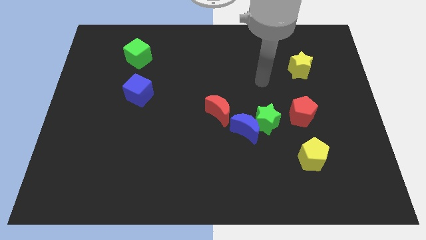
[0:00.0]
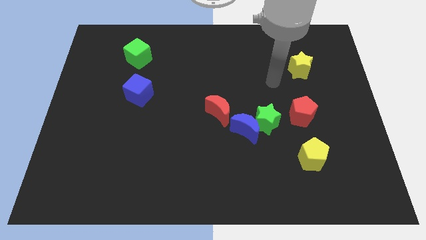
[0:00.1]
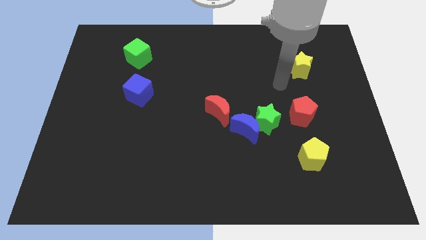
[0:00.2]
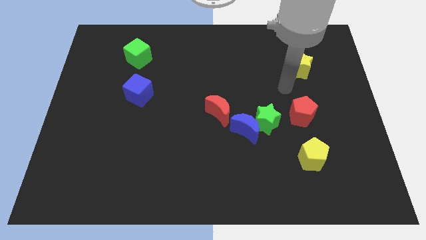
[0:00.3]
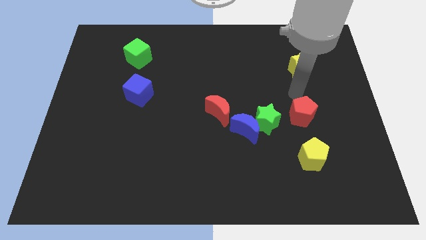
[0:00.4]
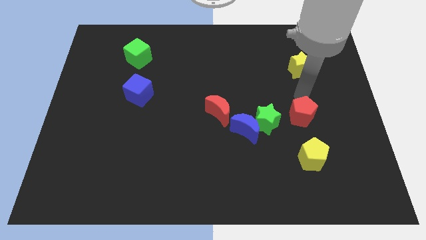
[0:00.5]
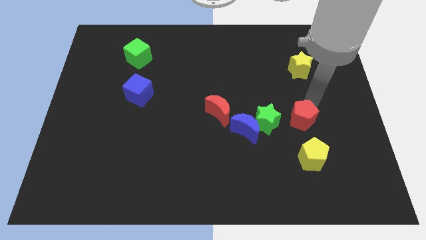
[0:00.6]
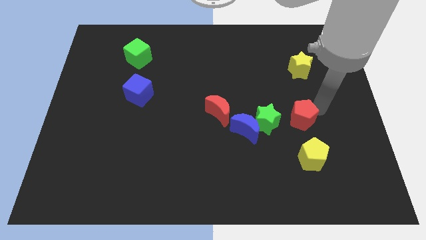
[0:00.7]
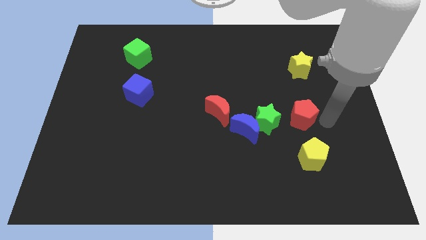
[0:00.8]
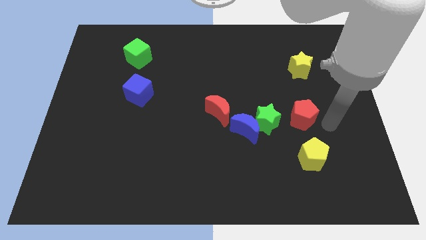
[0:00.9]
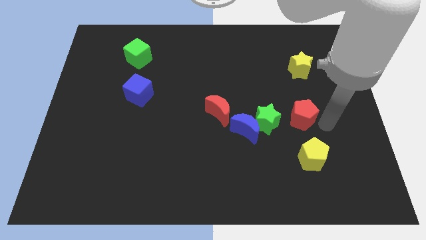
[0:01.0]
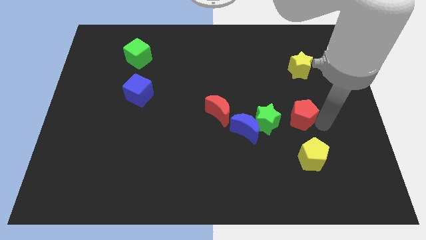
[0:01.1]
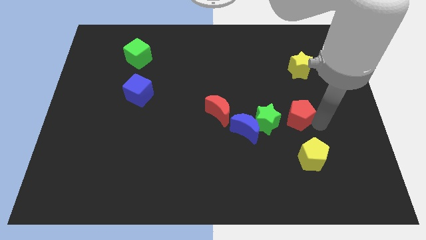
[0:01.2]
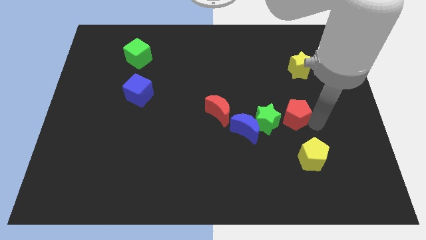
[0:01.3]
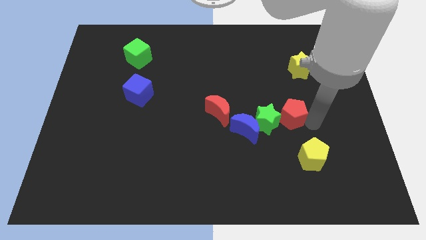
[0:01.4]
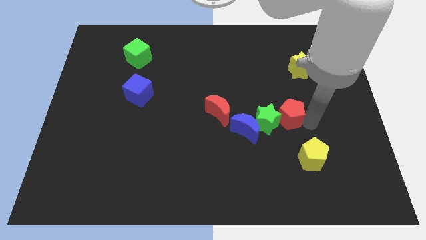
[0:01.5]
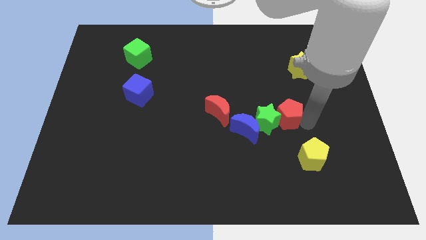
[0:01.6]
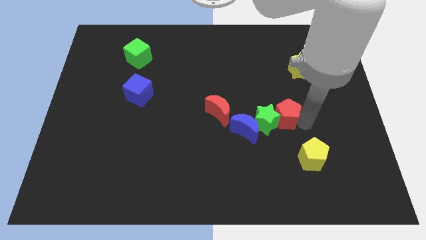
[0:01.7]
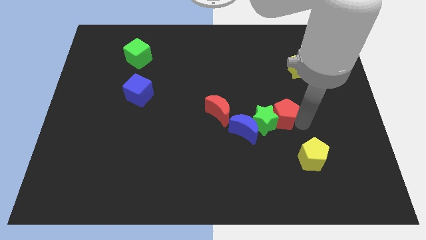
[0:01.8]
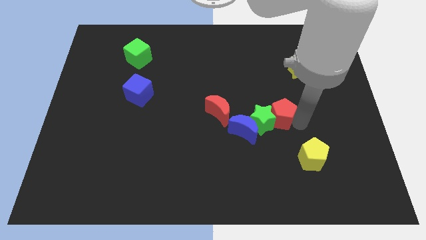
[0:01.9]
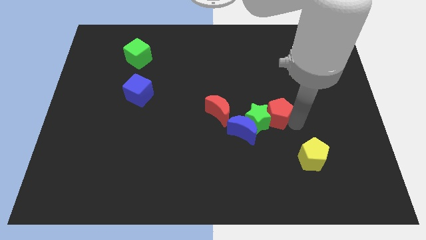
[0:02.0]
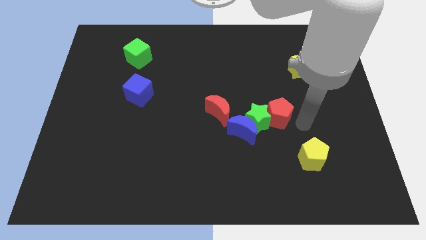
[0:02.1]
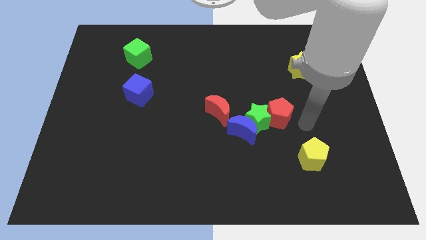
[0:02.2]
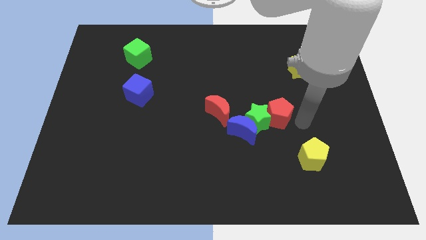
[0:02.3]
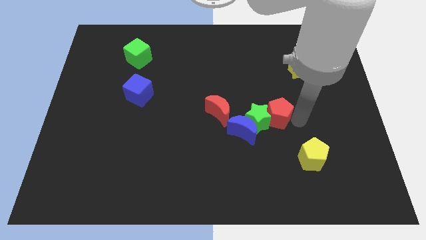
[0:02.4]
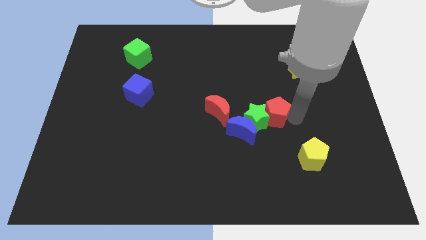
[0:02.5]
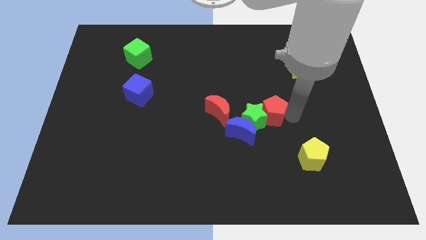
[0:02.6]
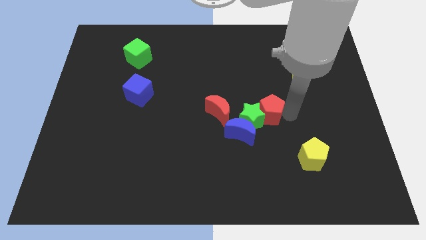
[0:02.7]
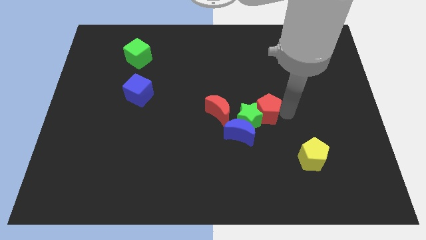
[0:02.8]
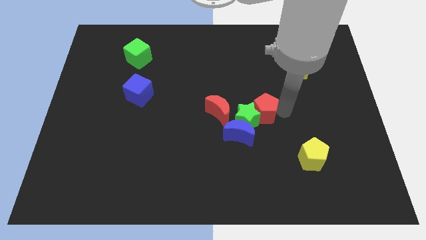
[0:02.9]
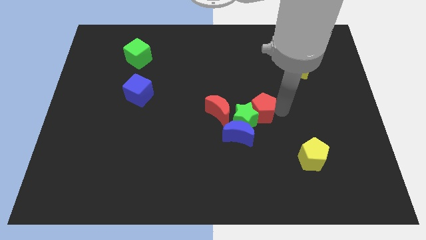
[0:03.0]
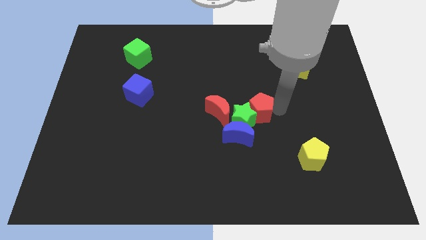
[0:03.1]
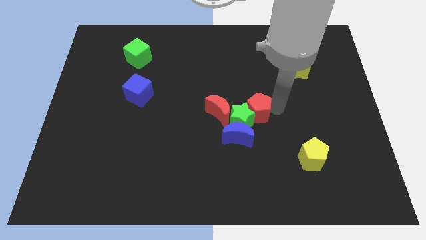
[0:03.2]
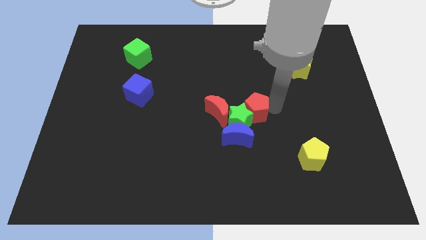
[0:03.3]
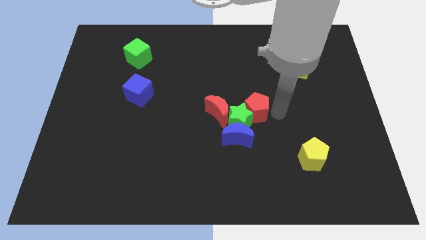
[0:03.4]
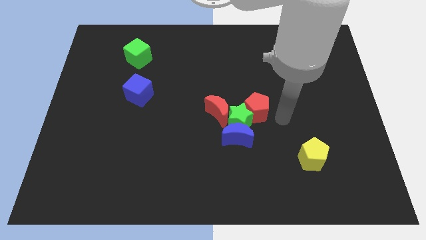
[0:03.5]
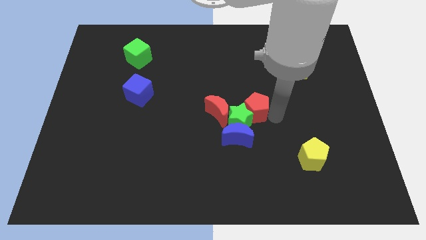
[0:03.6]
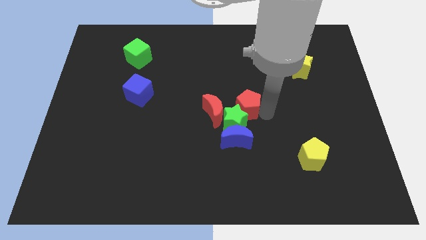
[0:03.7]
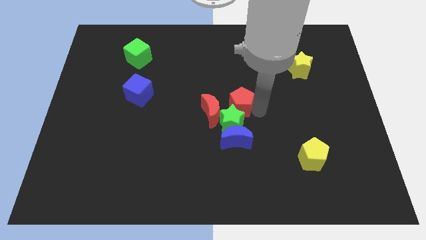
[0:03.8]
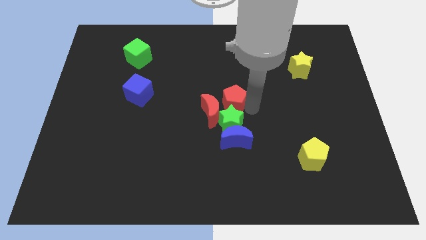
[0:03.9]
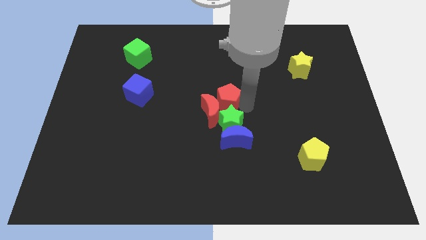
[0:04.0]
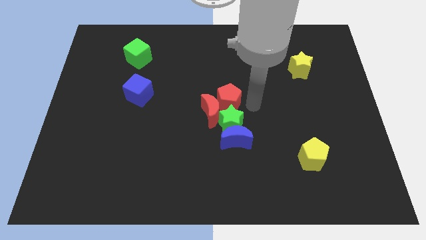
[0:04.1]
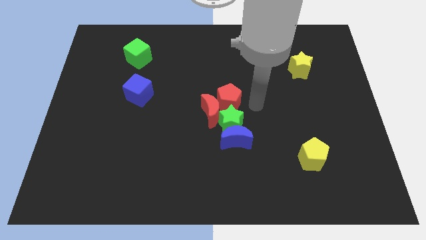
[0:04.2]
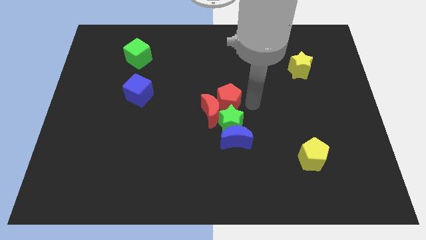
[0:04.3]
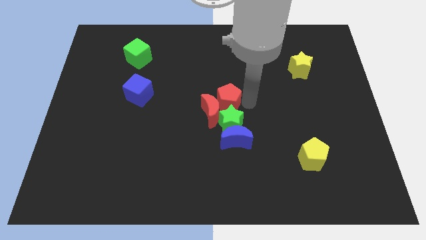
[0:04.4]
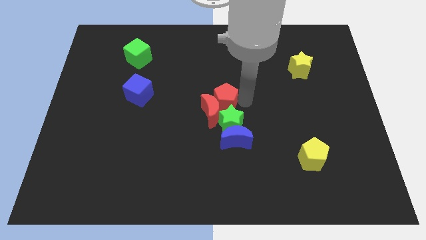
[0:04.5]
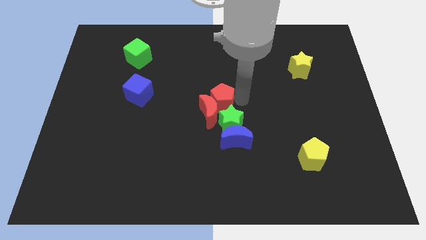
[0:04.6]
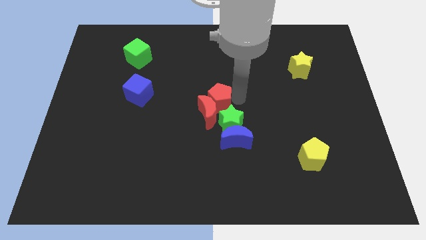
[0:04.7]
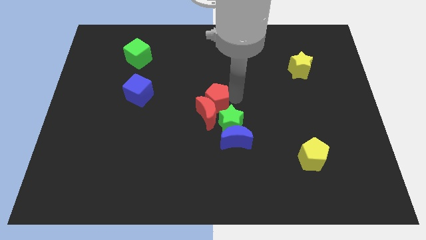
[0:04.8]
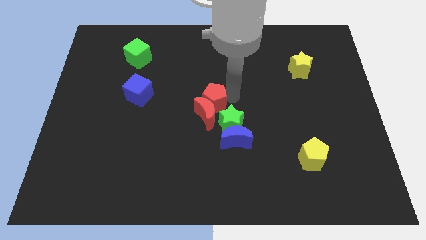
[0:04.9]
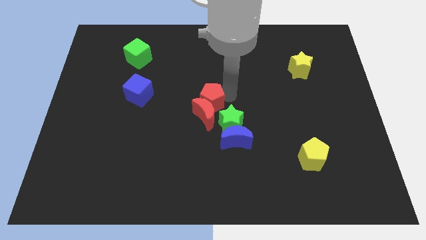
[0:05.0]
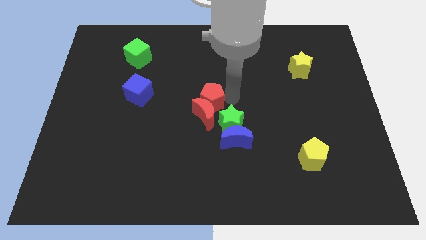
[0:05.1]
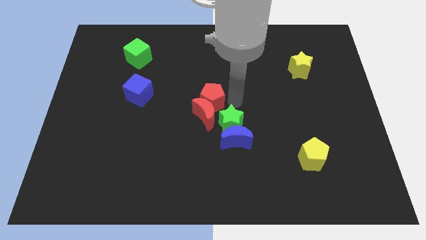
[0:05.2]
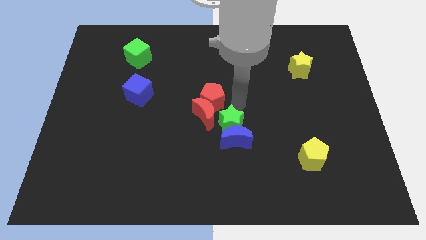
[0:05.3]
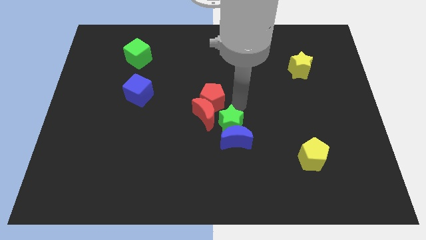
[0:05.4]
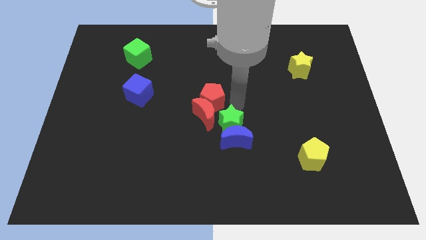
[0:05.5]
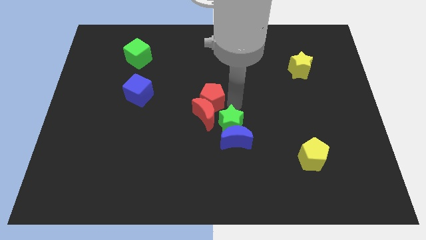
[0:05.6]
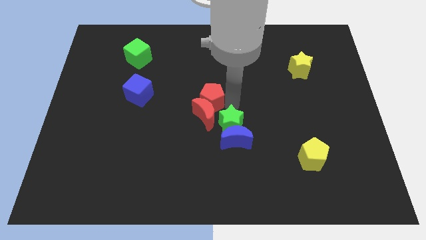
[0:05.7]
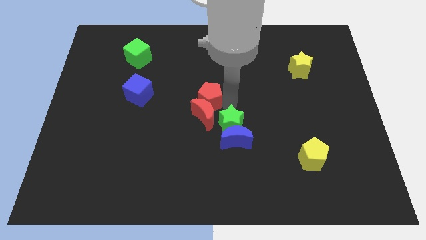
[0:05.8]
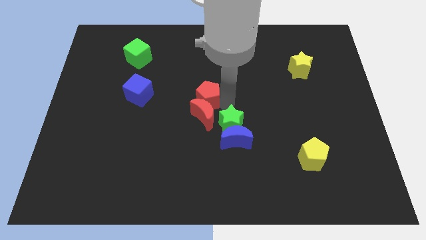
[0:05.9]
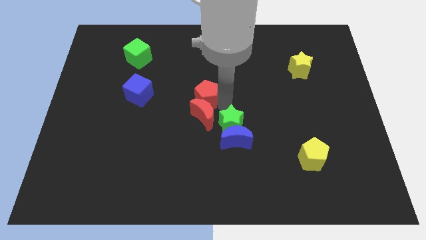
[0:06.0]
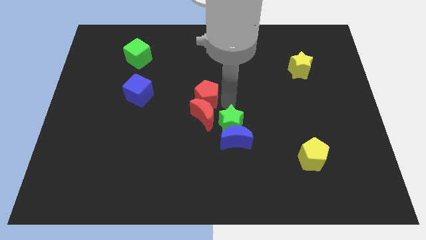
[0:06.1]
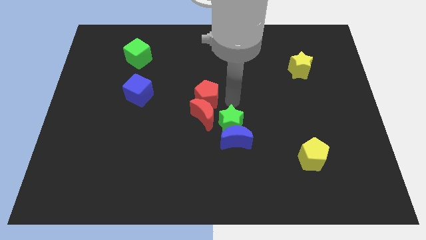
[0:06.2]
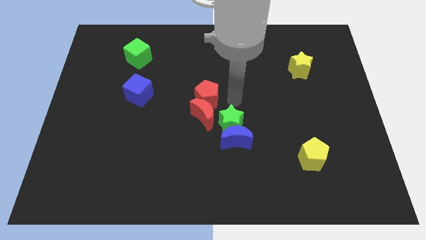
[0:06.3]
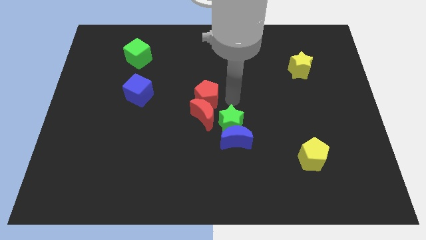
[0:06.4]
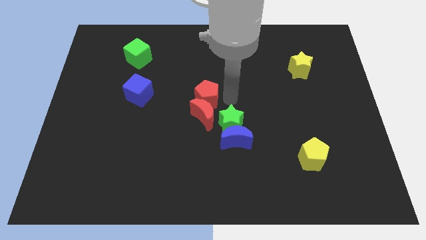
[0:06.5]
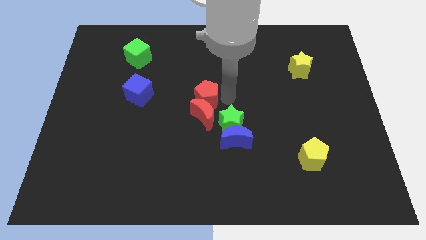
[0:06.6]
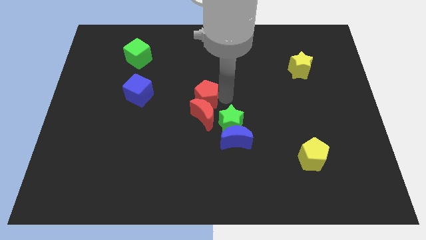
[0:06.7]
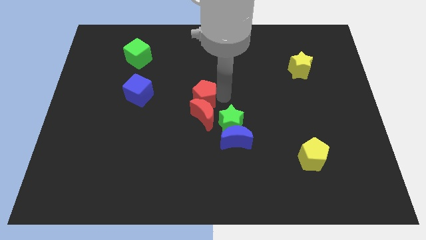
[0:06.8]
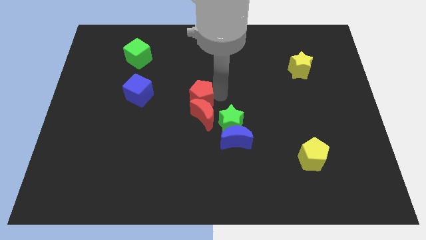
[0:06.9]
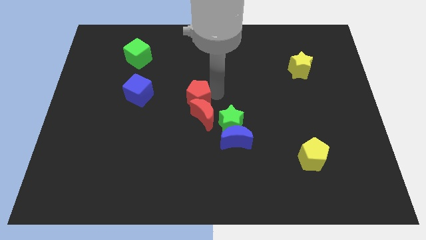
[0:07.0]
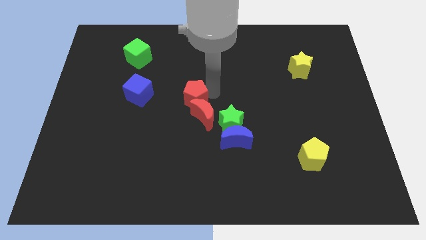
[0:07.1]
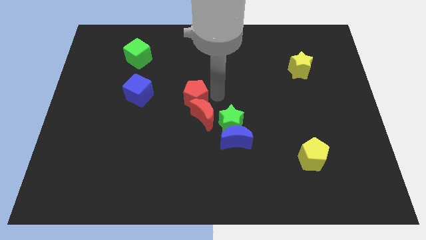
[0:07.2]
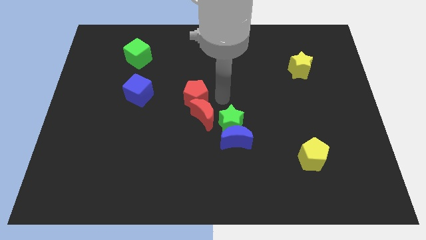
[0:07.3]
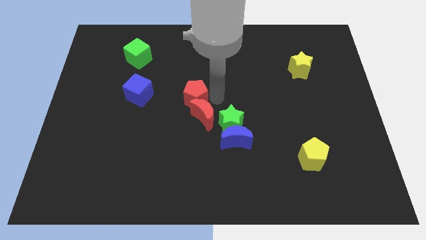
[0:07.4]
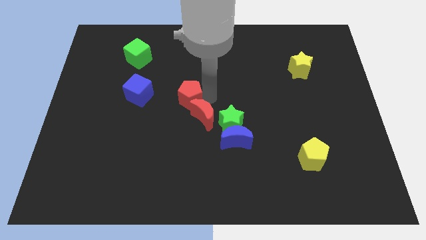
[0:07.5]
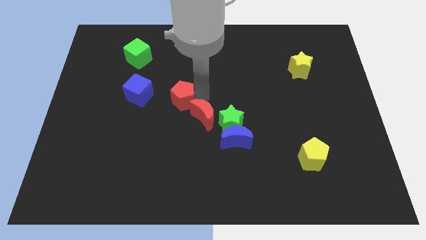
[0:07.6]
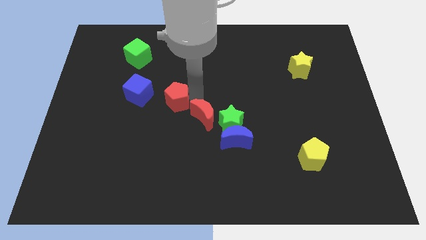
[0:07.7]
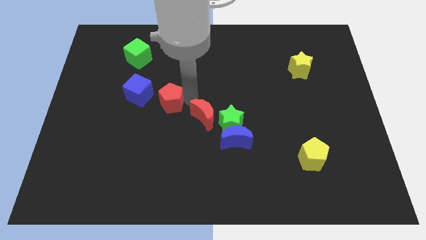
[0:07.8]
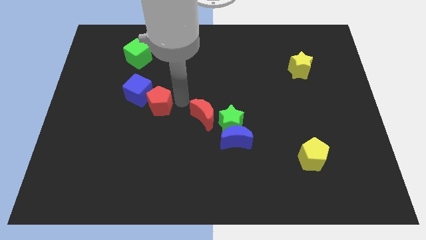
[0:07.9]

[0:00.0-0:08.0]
put the red pentagon close to the blue cube
